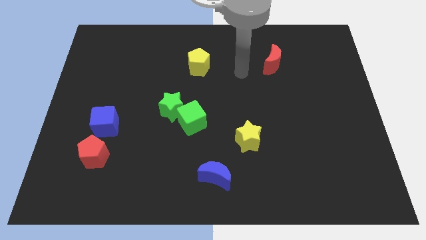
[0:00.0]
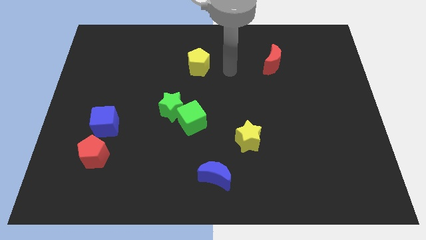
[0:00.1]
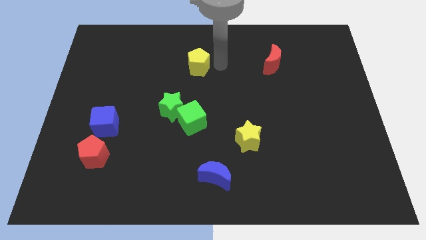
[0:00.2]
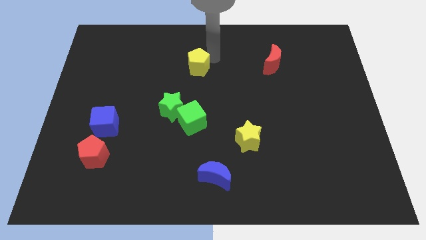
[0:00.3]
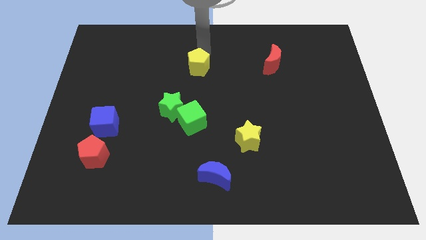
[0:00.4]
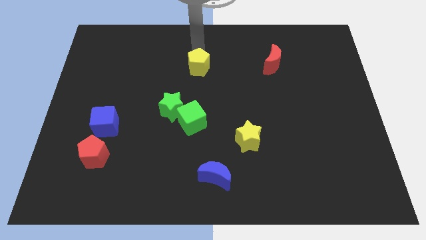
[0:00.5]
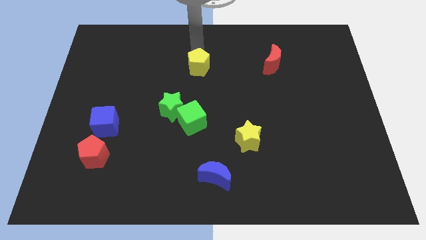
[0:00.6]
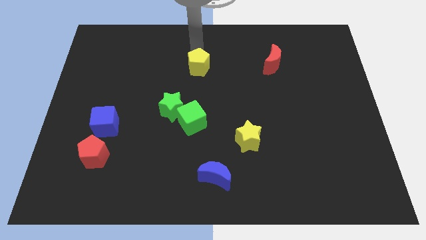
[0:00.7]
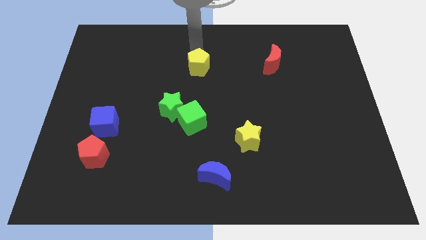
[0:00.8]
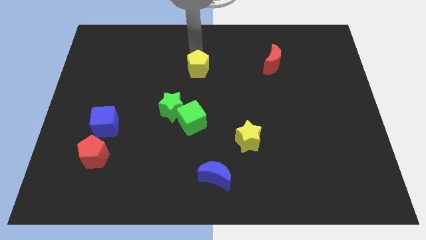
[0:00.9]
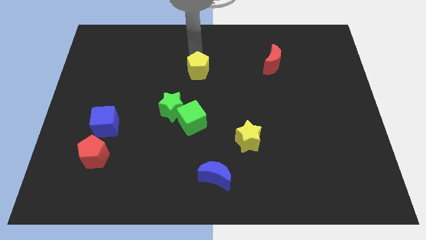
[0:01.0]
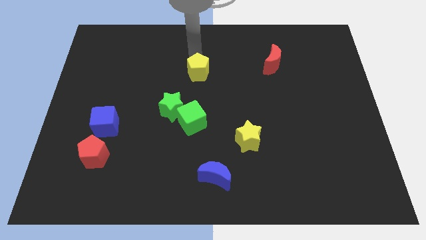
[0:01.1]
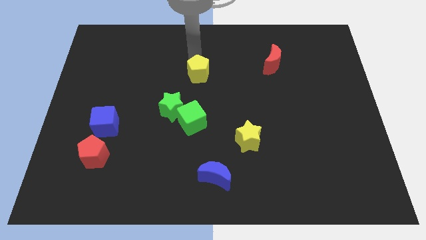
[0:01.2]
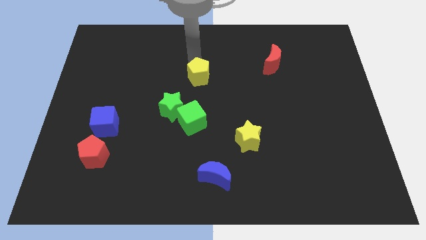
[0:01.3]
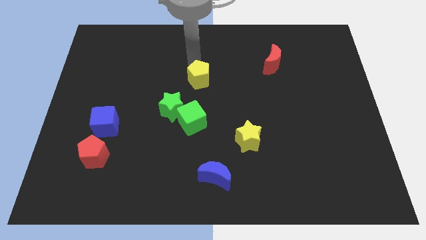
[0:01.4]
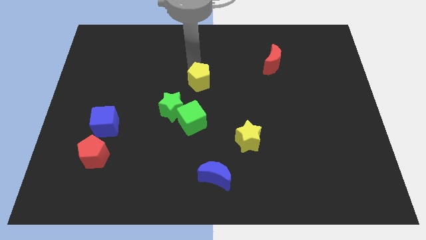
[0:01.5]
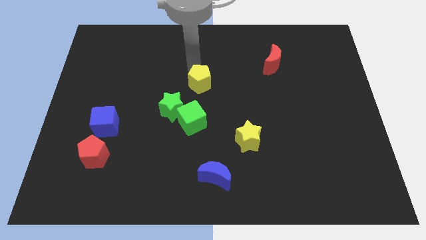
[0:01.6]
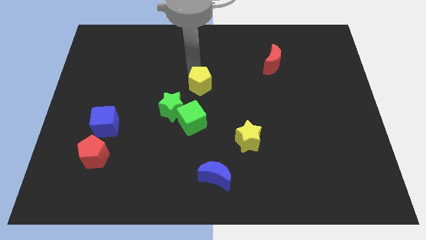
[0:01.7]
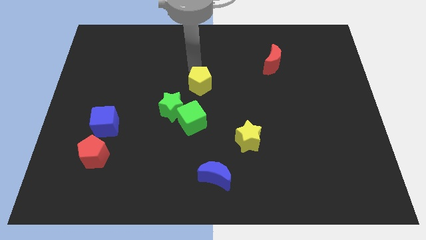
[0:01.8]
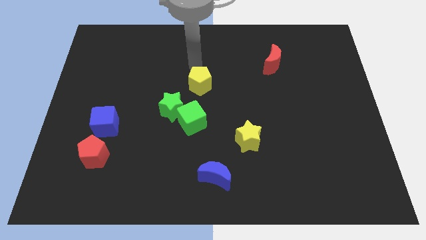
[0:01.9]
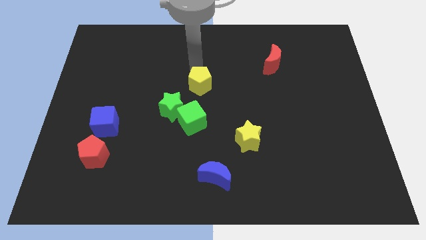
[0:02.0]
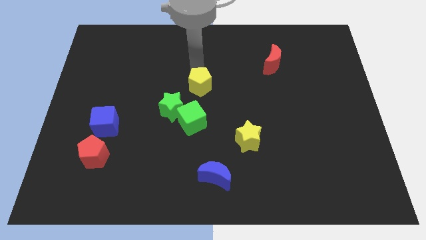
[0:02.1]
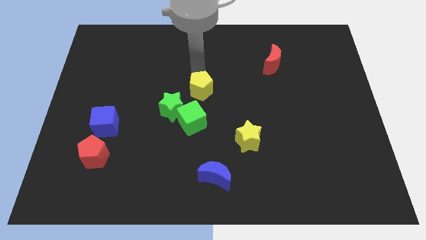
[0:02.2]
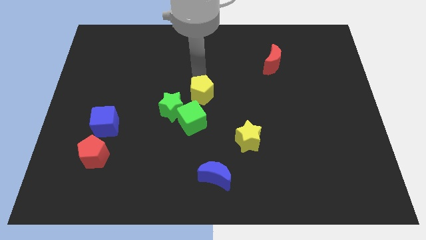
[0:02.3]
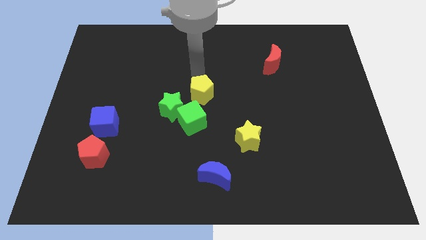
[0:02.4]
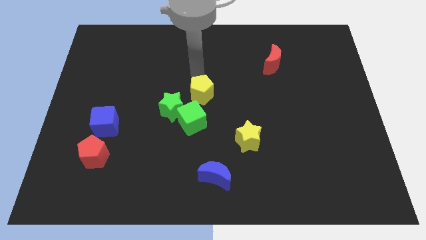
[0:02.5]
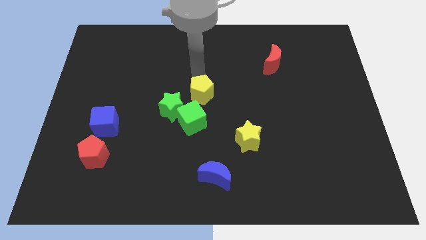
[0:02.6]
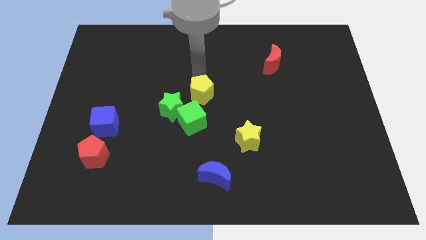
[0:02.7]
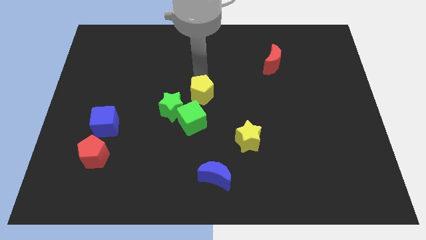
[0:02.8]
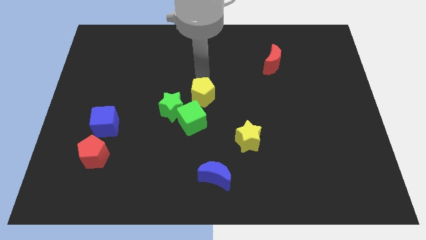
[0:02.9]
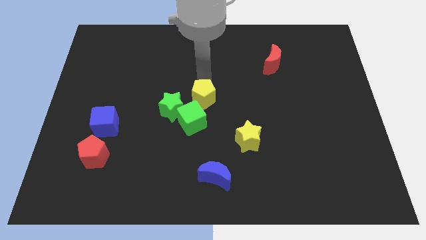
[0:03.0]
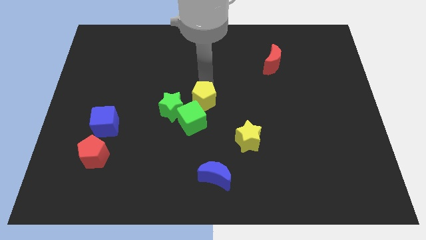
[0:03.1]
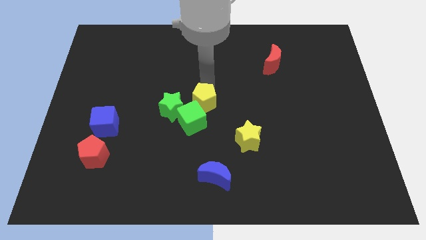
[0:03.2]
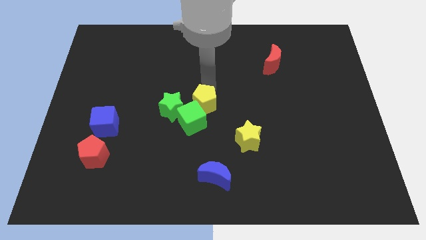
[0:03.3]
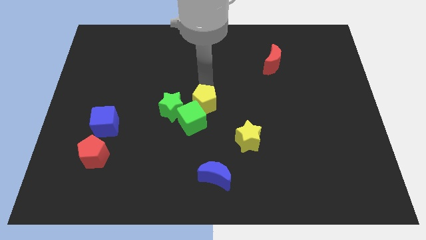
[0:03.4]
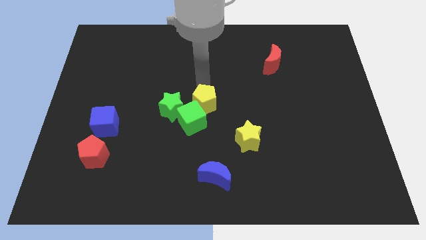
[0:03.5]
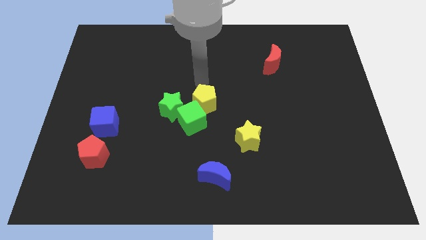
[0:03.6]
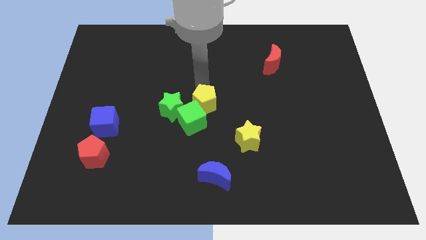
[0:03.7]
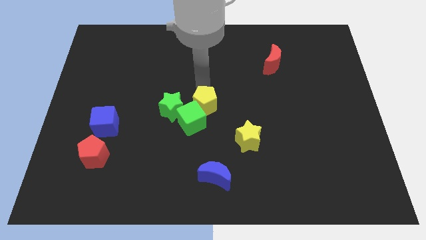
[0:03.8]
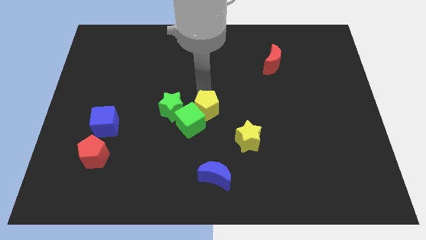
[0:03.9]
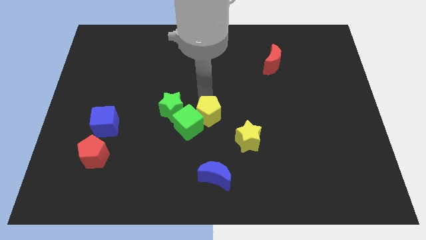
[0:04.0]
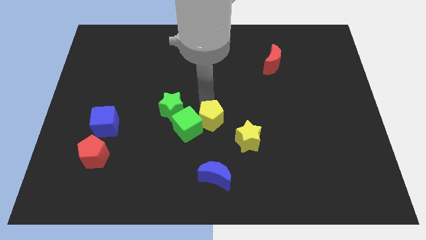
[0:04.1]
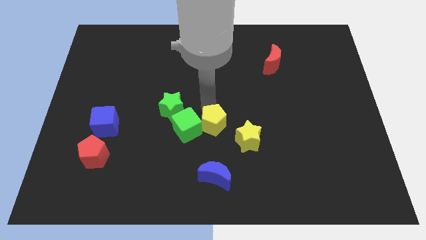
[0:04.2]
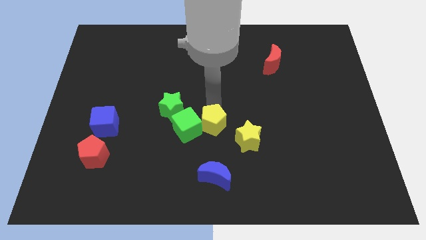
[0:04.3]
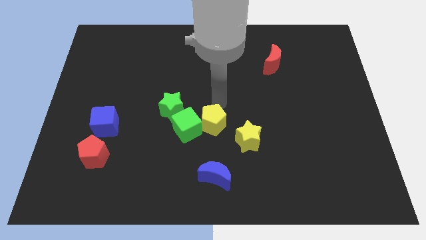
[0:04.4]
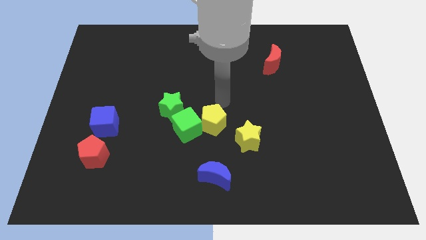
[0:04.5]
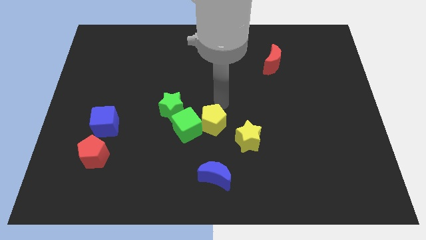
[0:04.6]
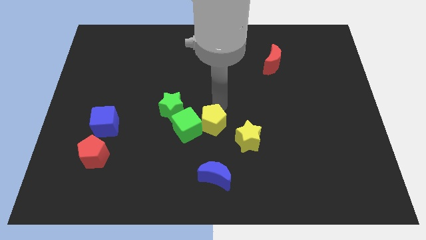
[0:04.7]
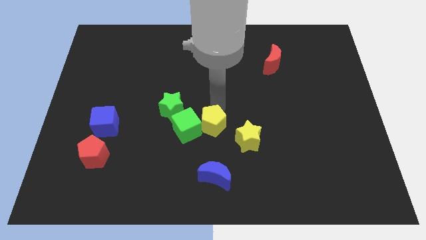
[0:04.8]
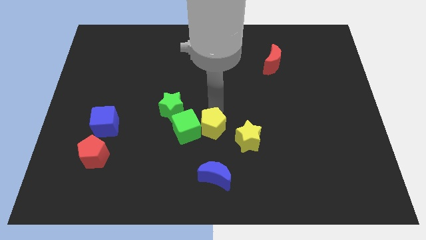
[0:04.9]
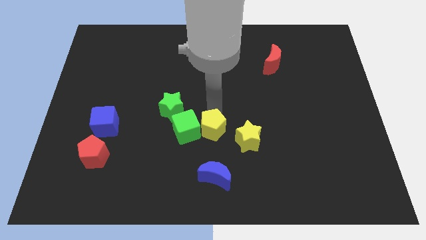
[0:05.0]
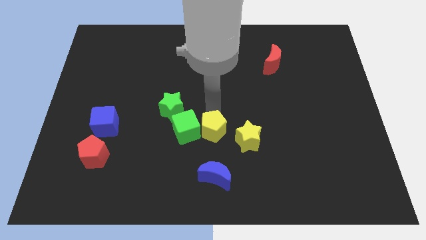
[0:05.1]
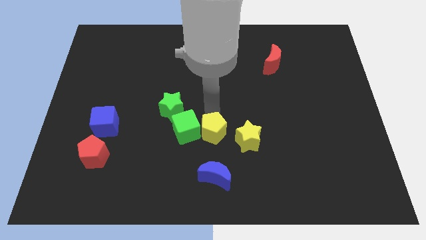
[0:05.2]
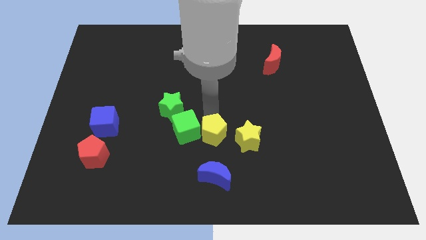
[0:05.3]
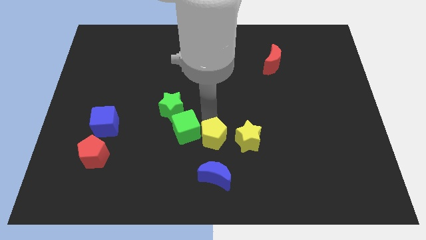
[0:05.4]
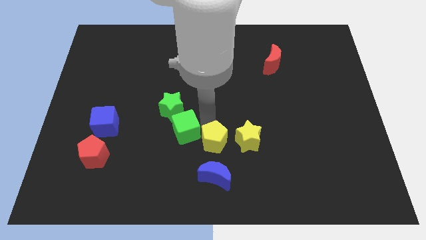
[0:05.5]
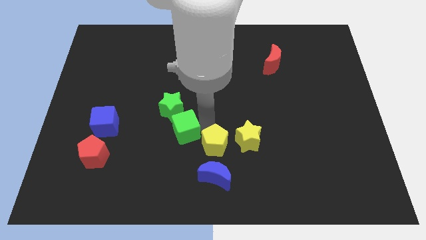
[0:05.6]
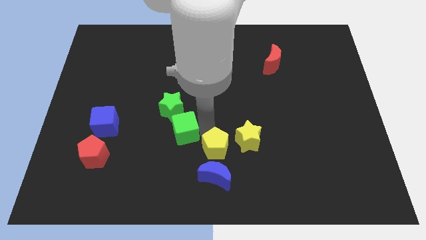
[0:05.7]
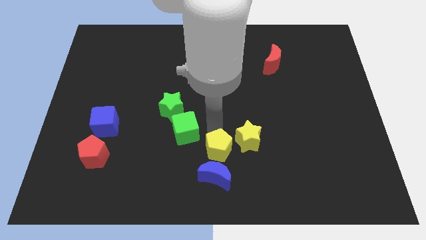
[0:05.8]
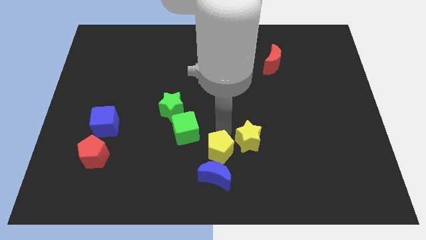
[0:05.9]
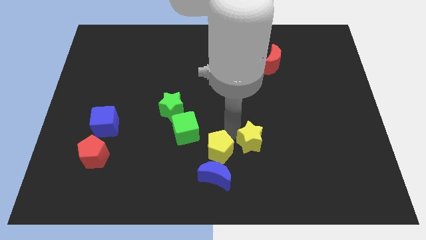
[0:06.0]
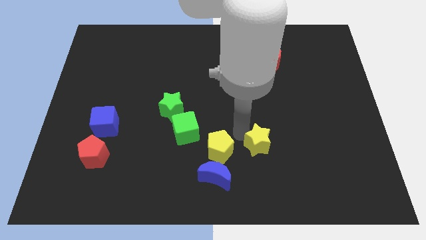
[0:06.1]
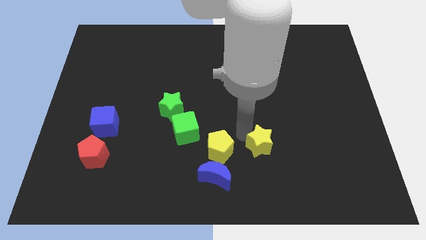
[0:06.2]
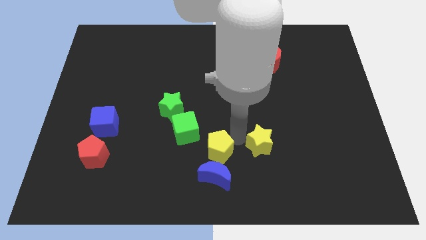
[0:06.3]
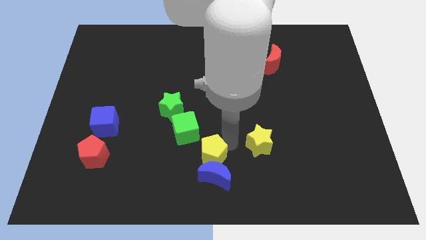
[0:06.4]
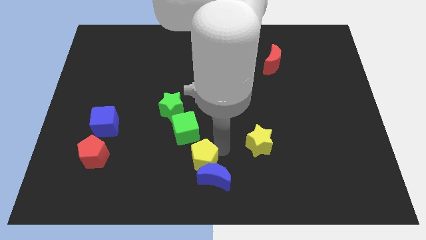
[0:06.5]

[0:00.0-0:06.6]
put the yellow pentagon below the green cube
